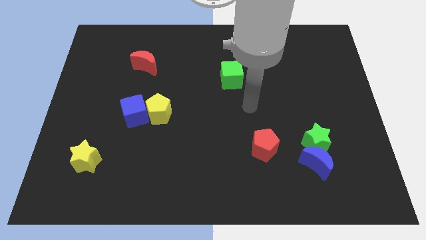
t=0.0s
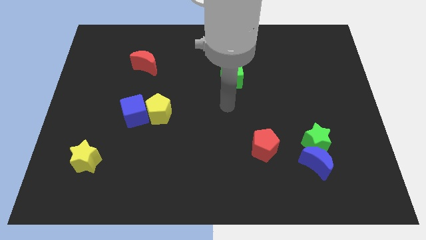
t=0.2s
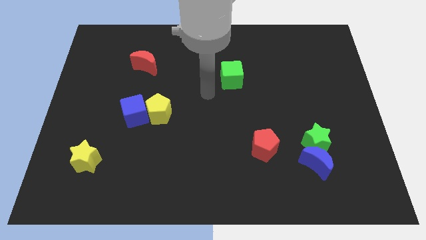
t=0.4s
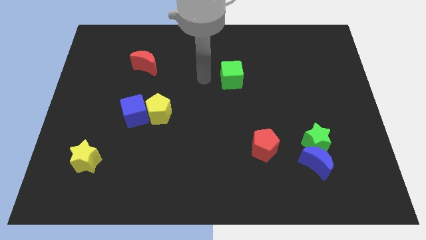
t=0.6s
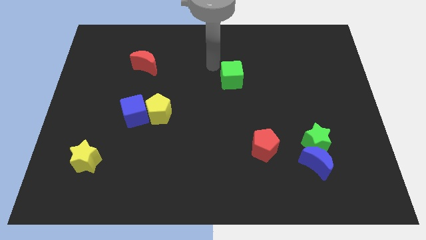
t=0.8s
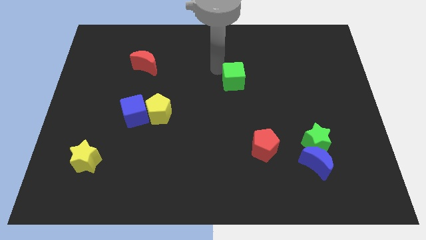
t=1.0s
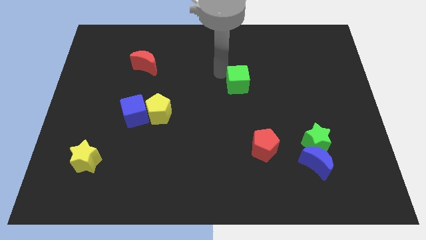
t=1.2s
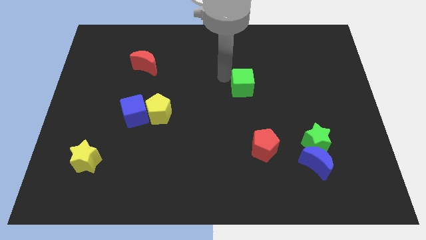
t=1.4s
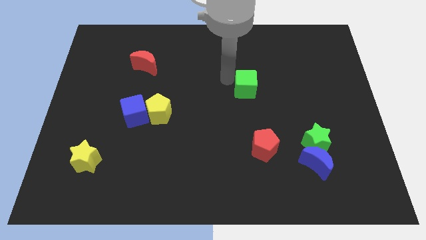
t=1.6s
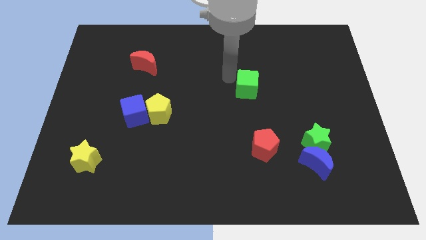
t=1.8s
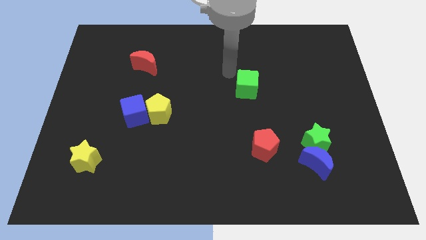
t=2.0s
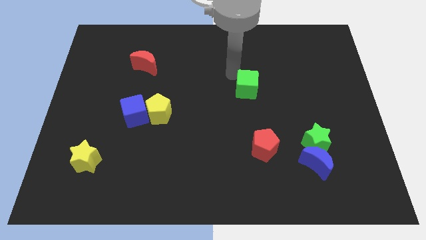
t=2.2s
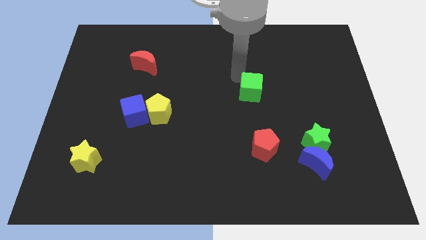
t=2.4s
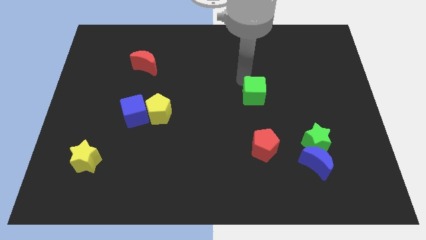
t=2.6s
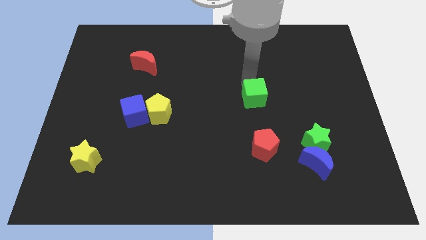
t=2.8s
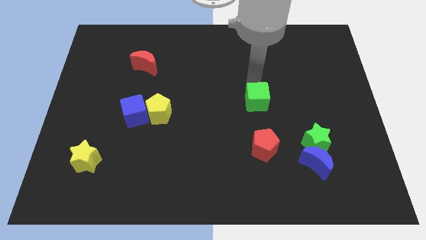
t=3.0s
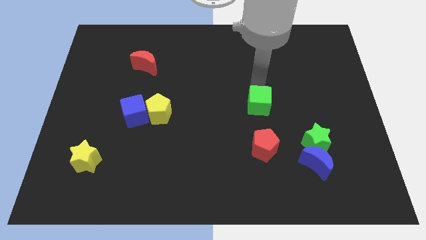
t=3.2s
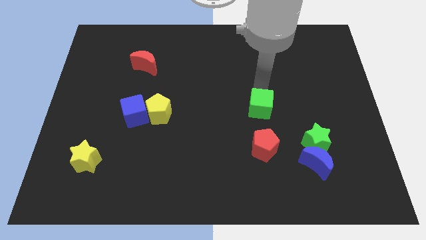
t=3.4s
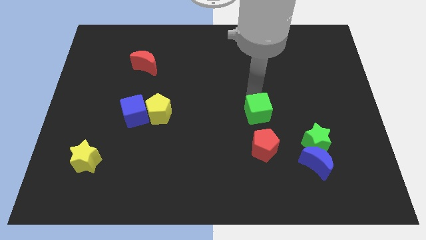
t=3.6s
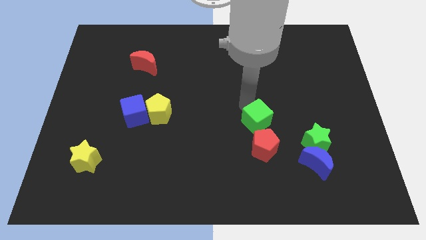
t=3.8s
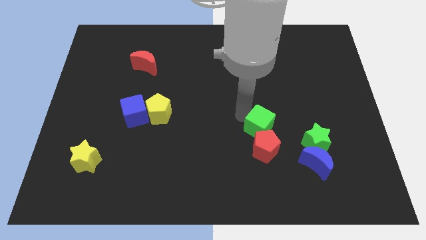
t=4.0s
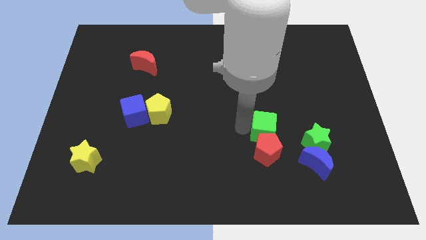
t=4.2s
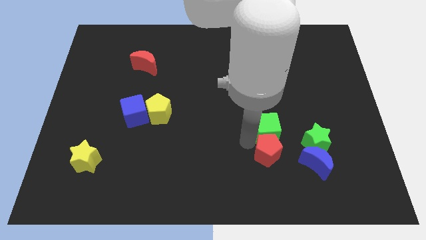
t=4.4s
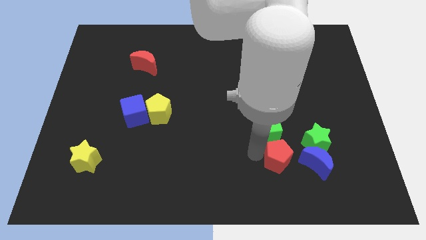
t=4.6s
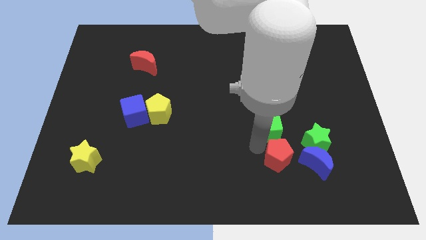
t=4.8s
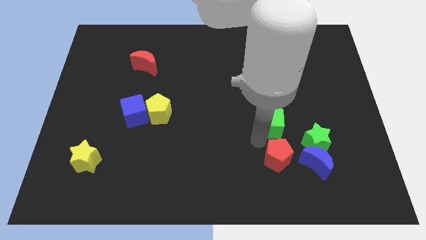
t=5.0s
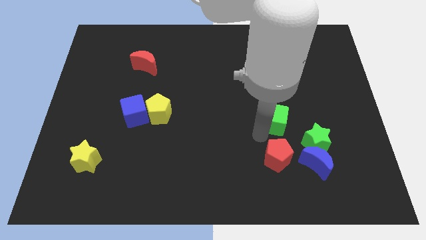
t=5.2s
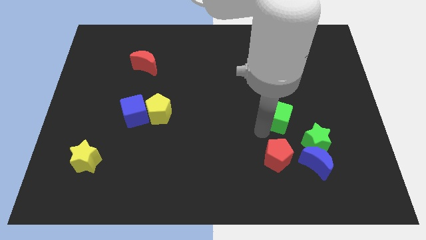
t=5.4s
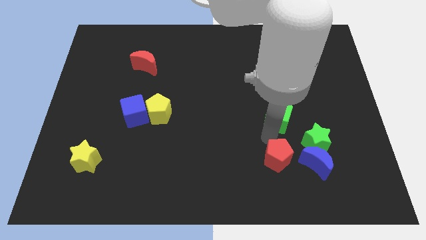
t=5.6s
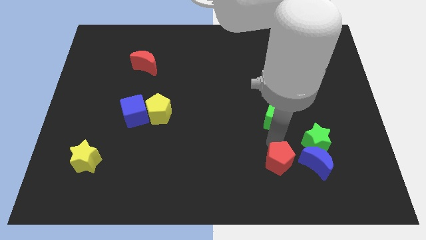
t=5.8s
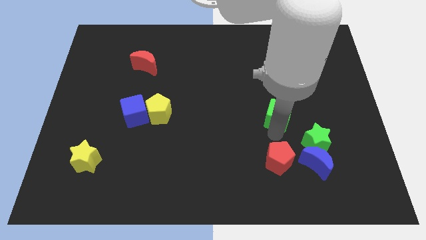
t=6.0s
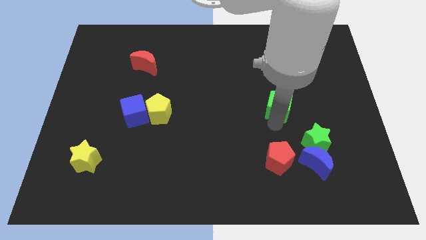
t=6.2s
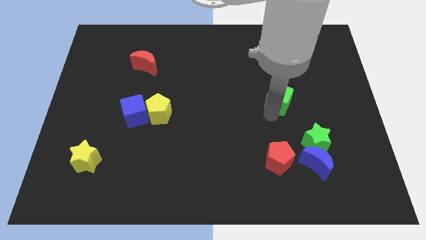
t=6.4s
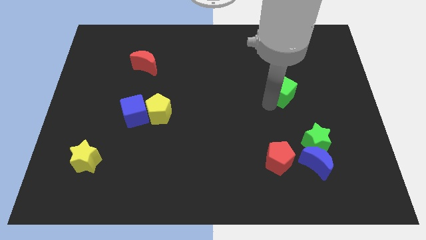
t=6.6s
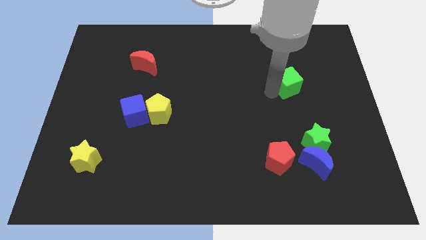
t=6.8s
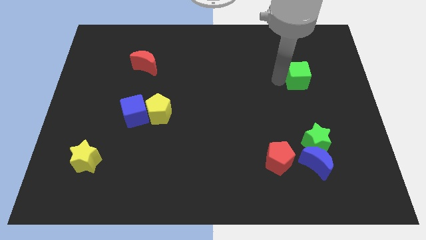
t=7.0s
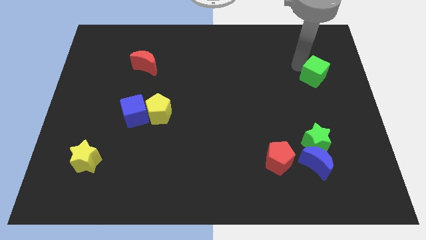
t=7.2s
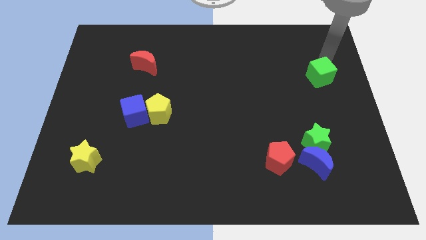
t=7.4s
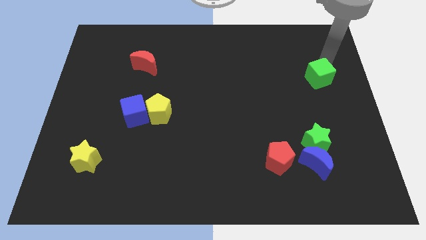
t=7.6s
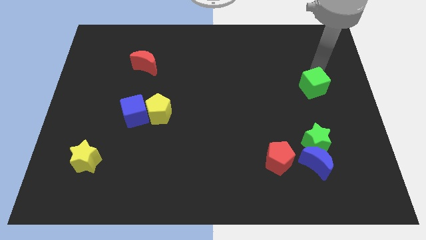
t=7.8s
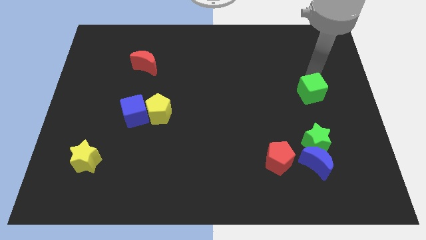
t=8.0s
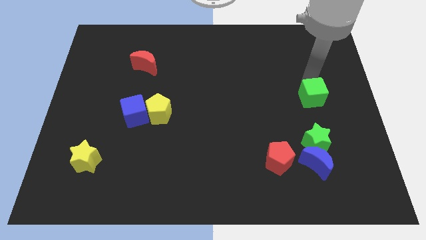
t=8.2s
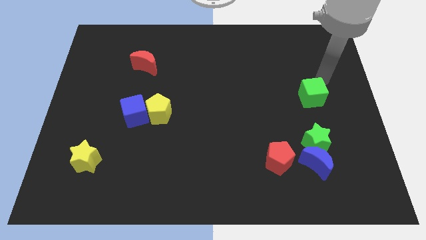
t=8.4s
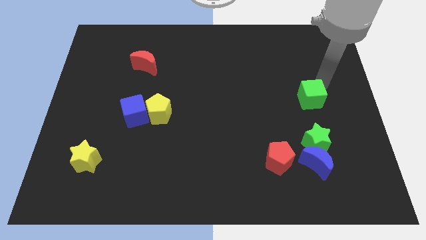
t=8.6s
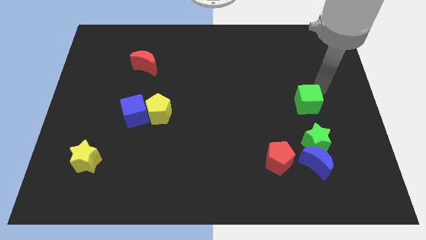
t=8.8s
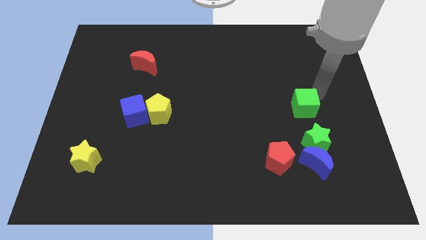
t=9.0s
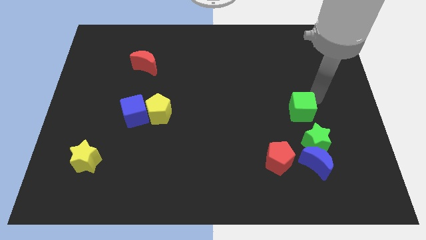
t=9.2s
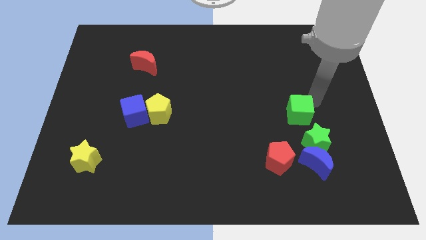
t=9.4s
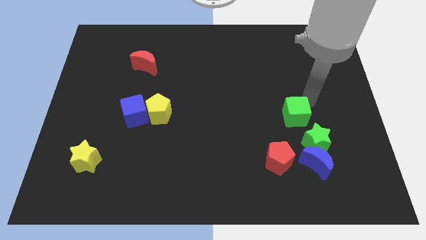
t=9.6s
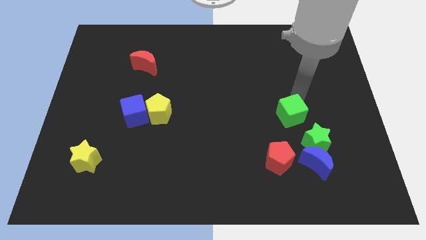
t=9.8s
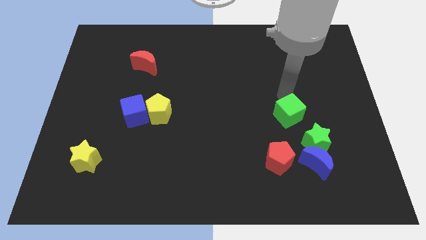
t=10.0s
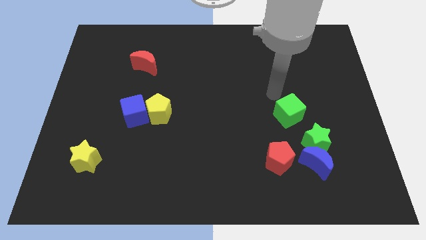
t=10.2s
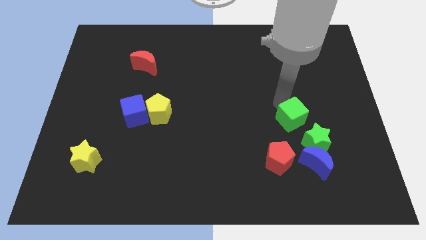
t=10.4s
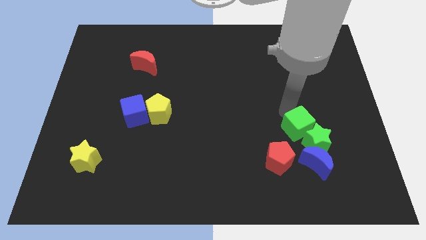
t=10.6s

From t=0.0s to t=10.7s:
move the green cube to the green star

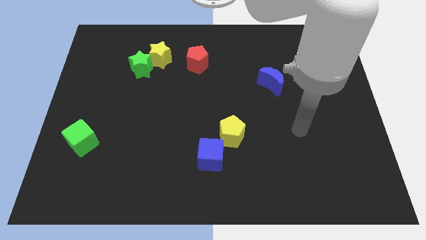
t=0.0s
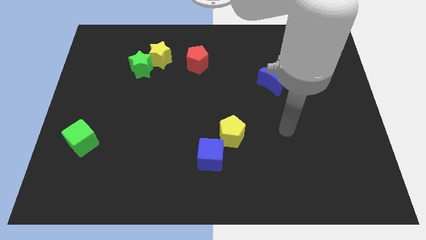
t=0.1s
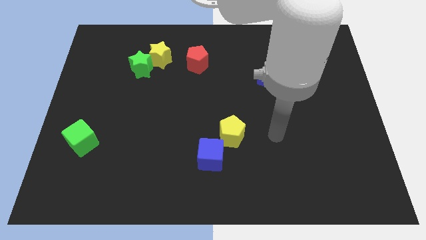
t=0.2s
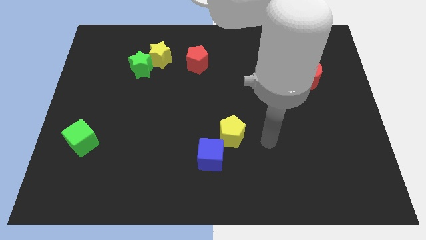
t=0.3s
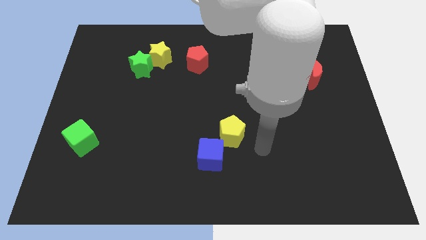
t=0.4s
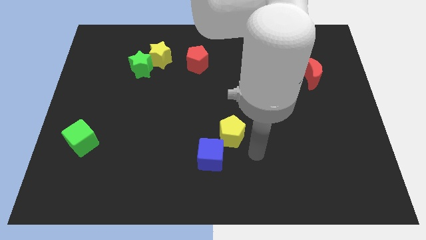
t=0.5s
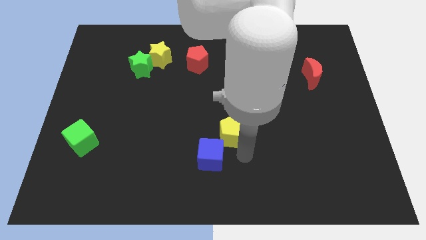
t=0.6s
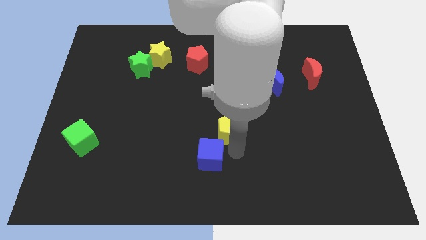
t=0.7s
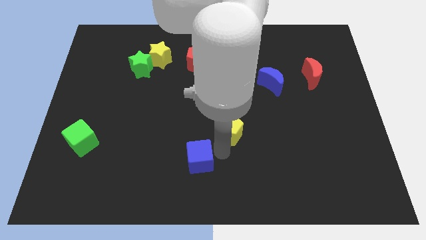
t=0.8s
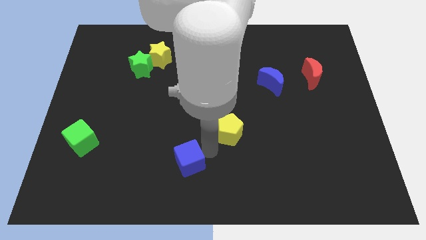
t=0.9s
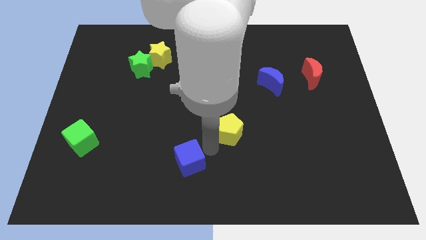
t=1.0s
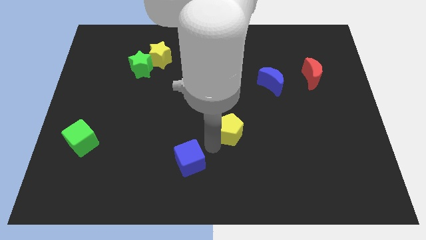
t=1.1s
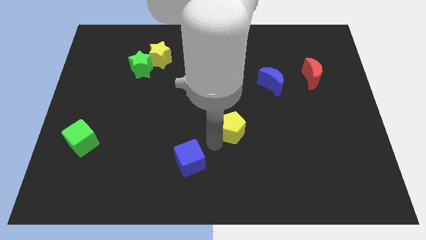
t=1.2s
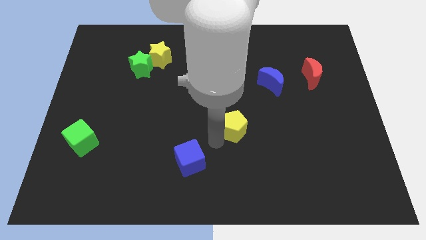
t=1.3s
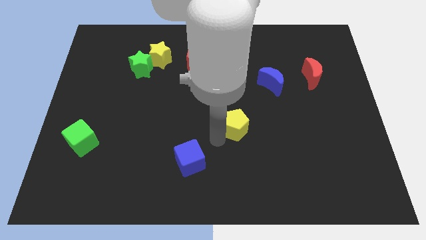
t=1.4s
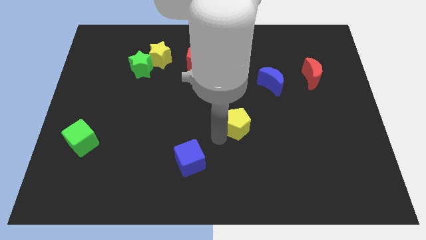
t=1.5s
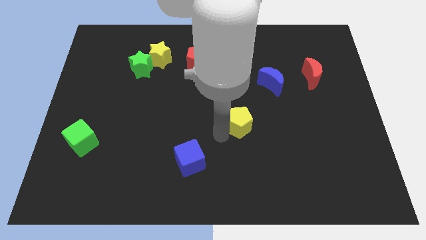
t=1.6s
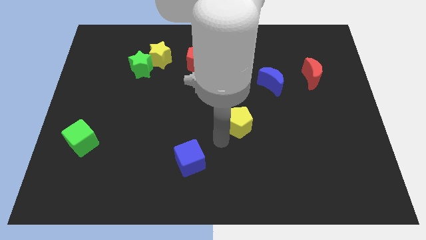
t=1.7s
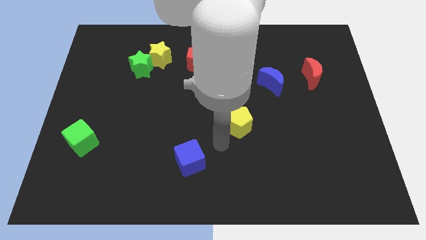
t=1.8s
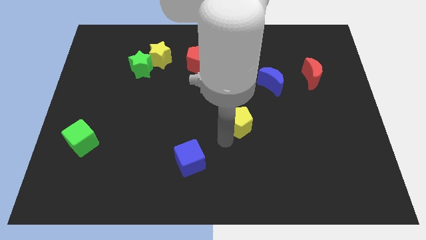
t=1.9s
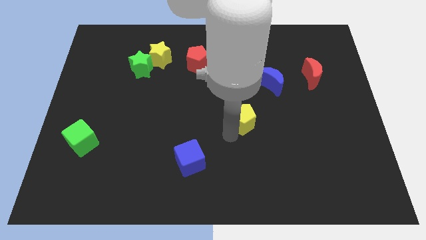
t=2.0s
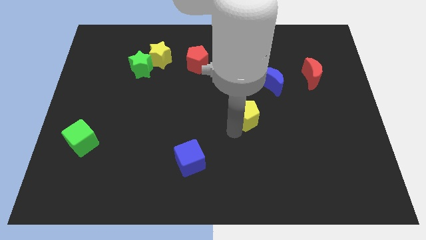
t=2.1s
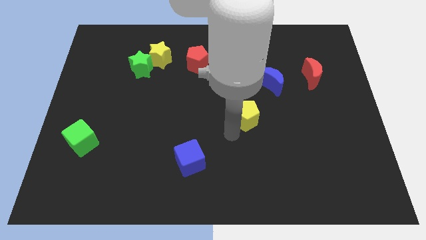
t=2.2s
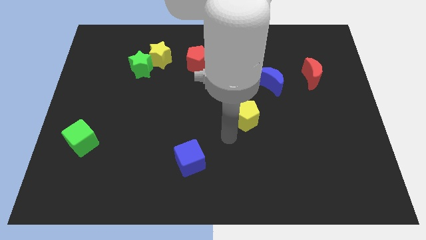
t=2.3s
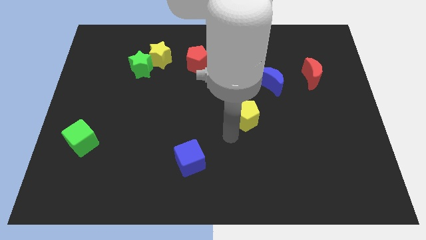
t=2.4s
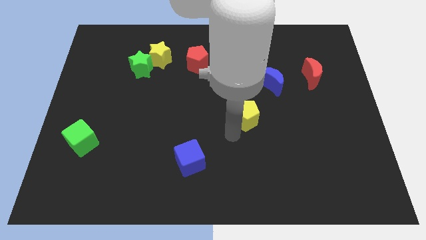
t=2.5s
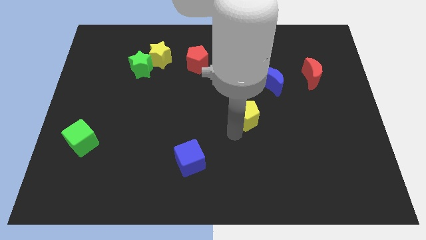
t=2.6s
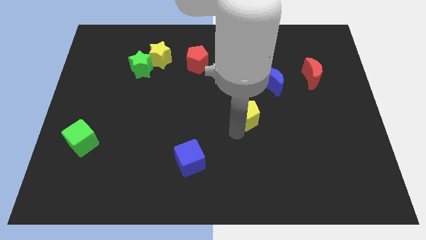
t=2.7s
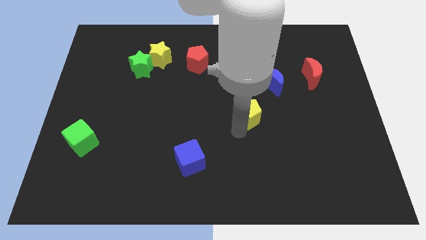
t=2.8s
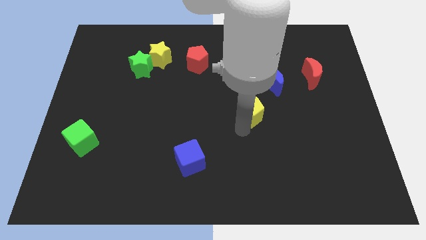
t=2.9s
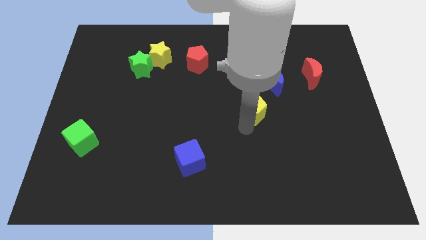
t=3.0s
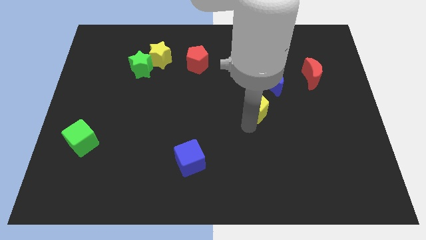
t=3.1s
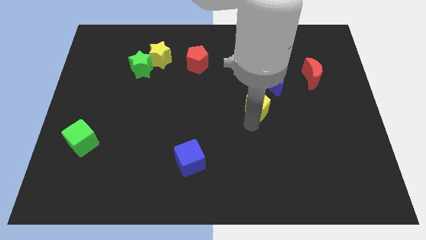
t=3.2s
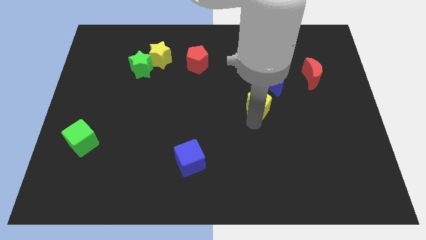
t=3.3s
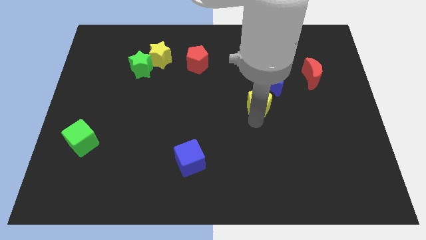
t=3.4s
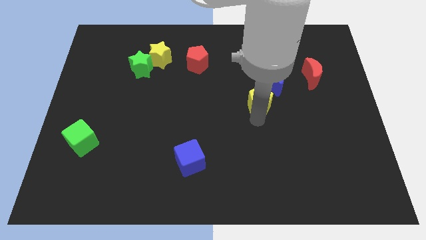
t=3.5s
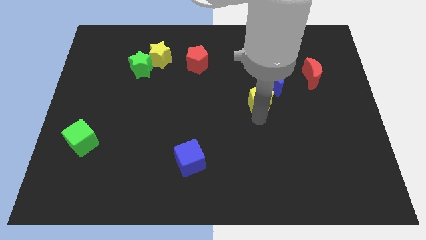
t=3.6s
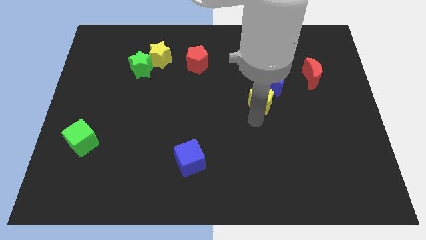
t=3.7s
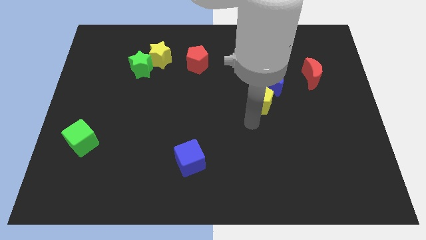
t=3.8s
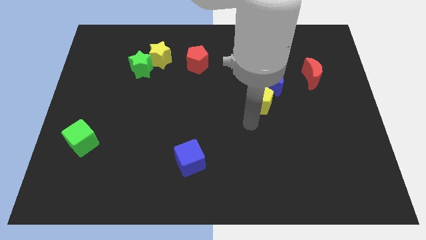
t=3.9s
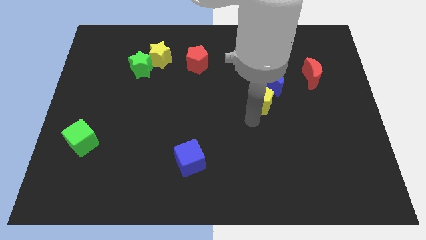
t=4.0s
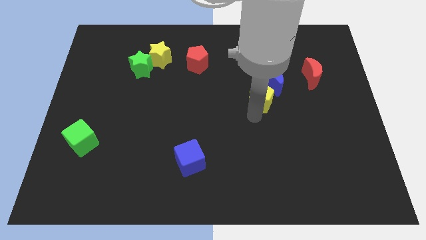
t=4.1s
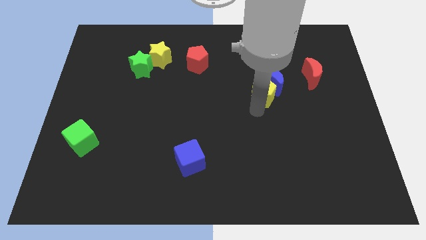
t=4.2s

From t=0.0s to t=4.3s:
slide the yellow pentagon to the blue moon
